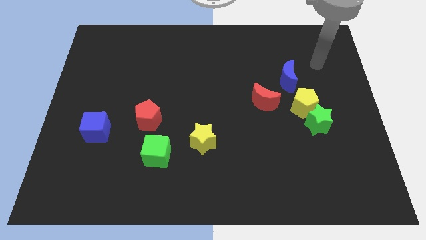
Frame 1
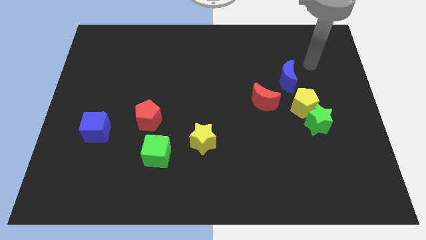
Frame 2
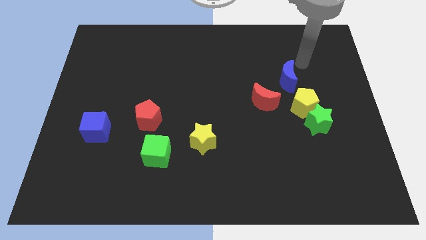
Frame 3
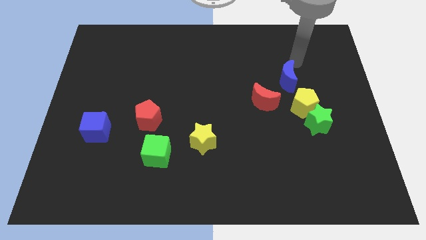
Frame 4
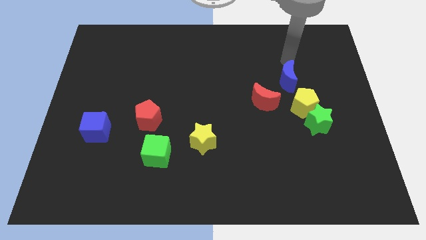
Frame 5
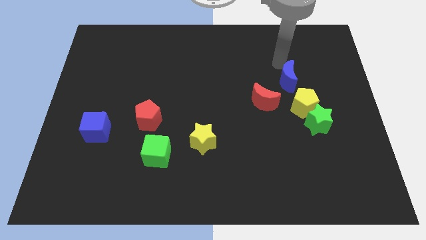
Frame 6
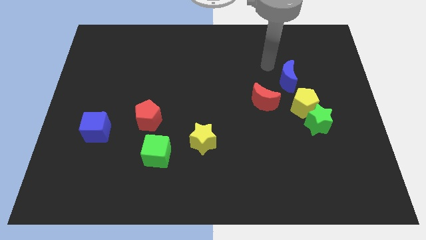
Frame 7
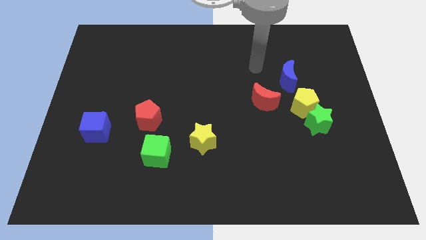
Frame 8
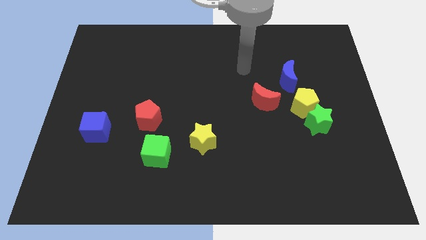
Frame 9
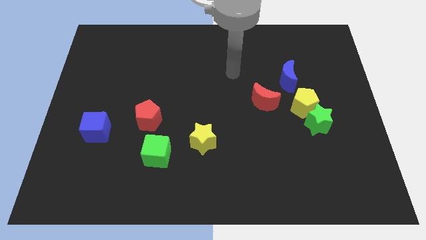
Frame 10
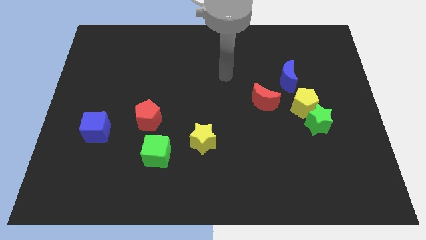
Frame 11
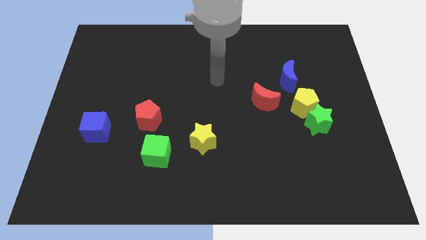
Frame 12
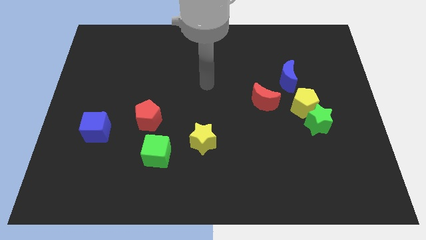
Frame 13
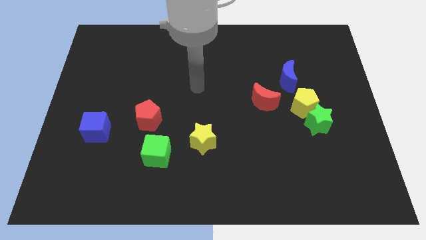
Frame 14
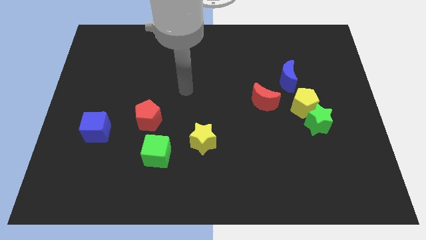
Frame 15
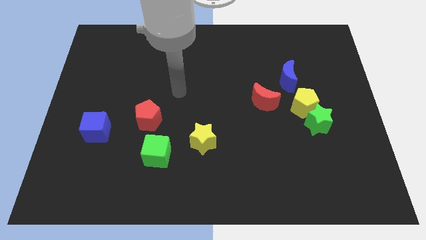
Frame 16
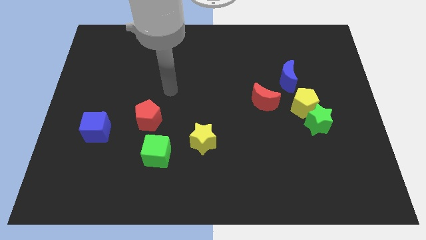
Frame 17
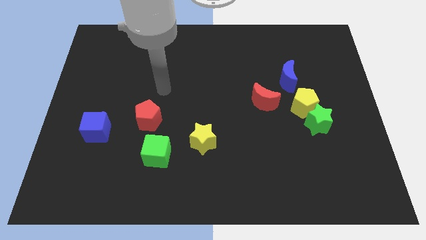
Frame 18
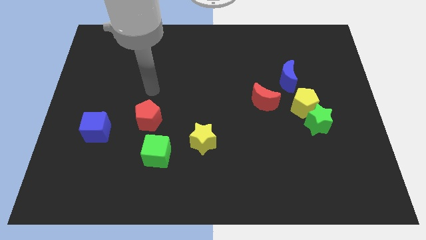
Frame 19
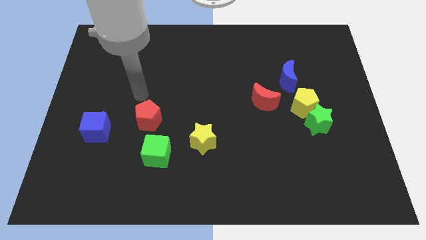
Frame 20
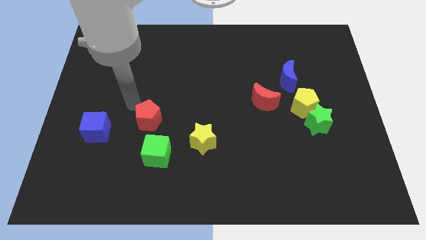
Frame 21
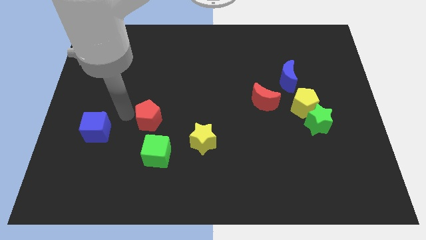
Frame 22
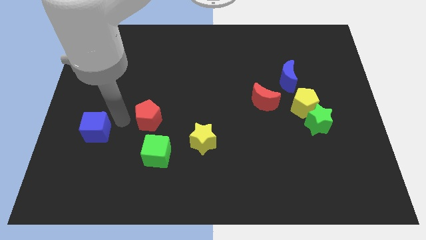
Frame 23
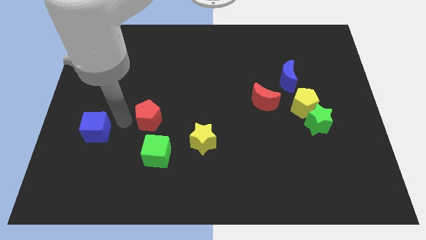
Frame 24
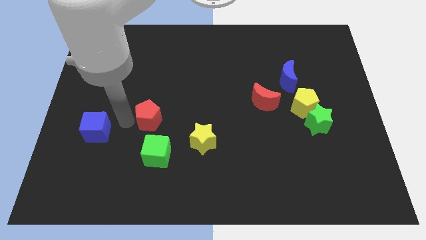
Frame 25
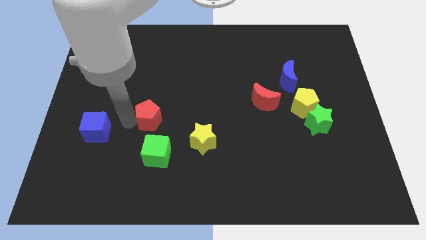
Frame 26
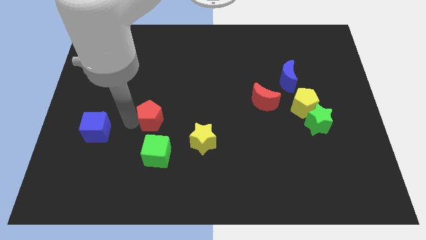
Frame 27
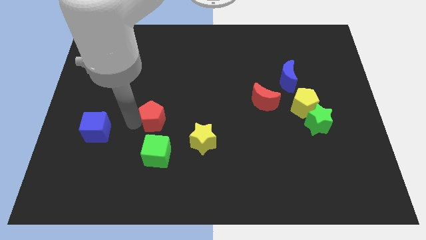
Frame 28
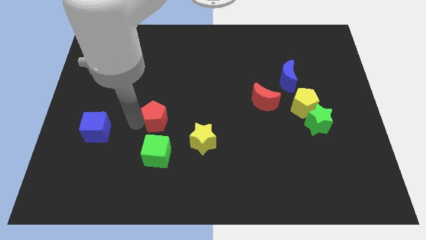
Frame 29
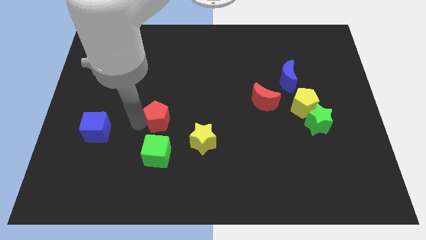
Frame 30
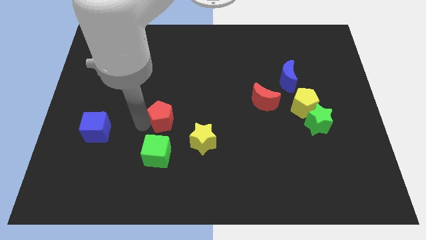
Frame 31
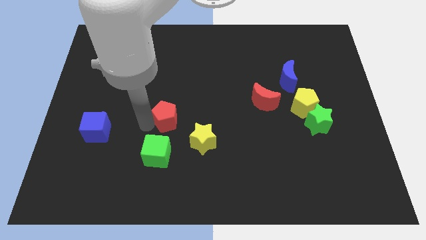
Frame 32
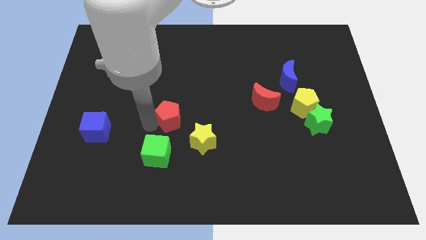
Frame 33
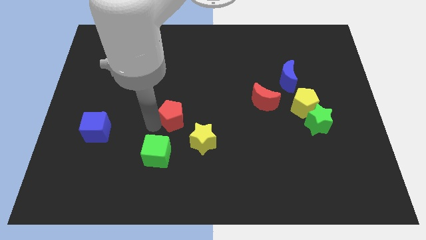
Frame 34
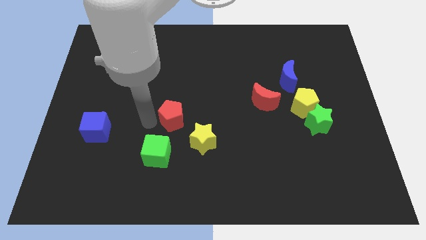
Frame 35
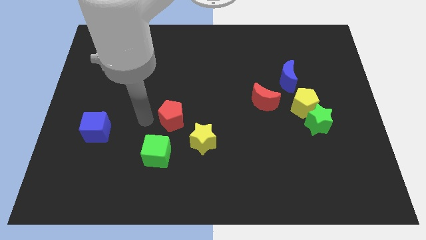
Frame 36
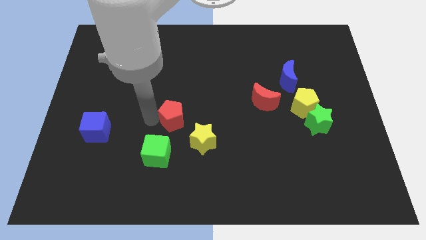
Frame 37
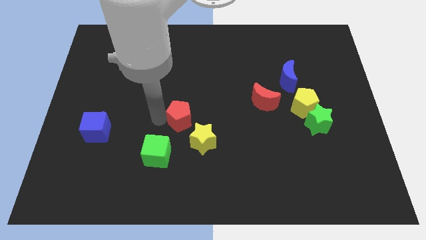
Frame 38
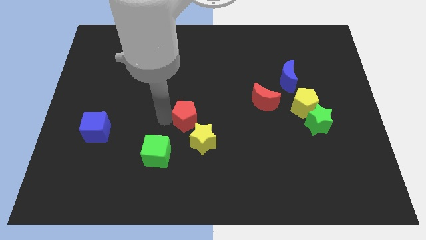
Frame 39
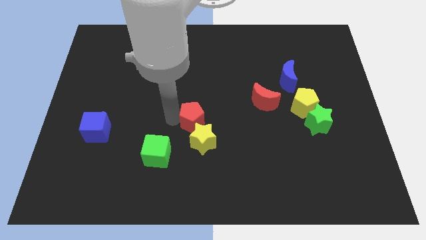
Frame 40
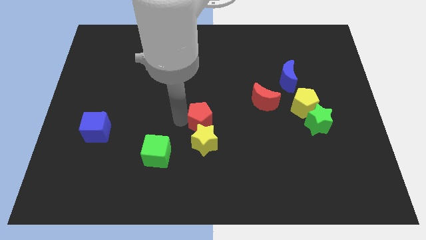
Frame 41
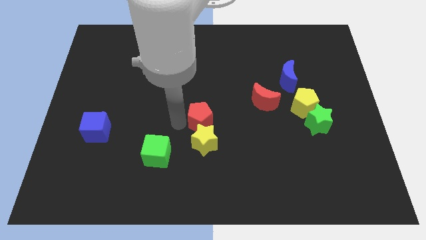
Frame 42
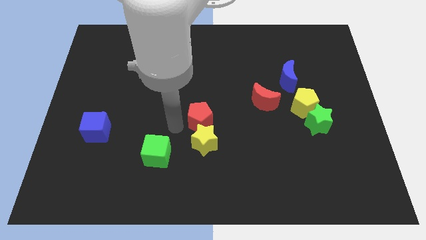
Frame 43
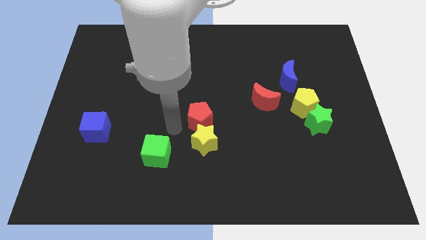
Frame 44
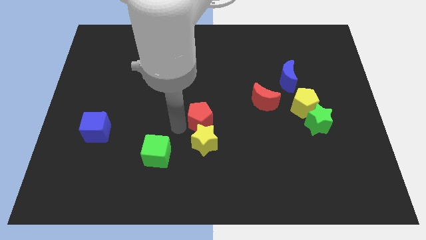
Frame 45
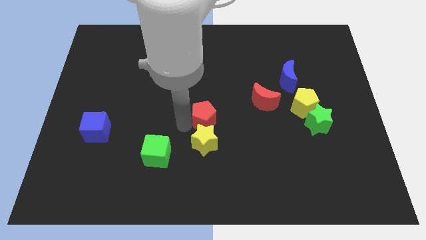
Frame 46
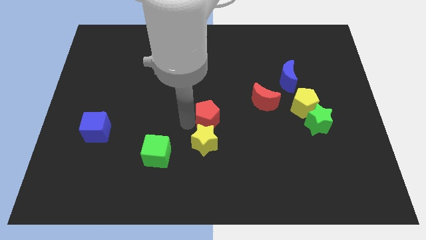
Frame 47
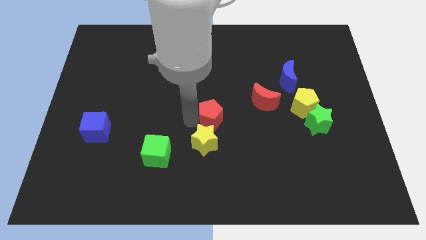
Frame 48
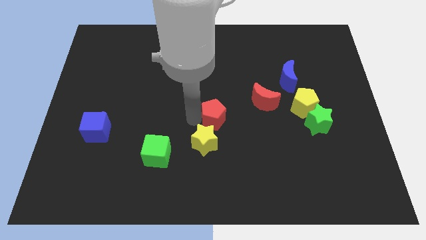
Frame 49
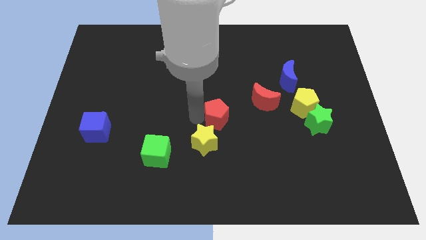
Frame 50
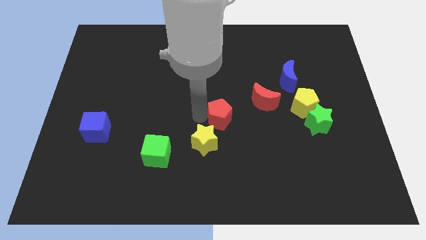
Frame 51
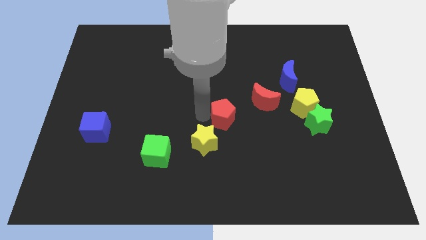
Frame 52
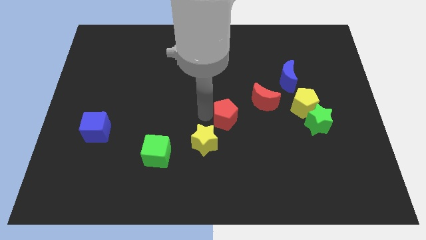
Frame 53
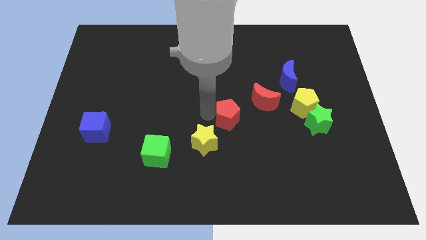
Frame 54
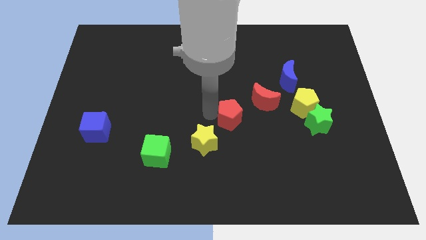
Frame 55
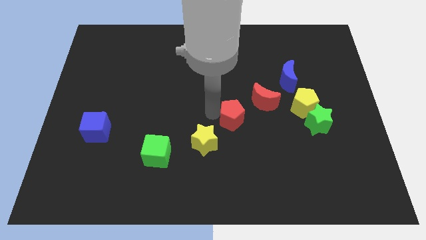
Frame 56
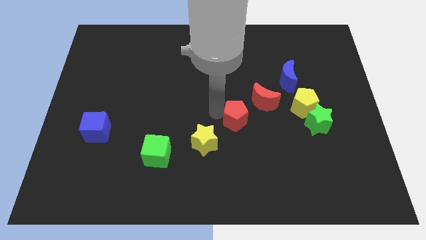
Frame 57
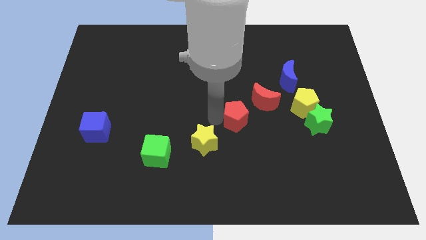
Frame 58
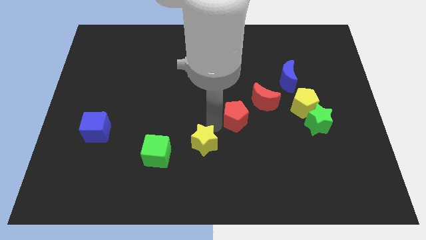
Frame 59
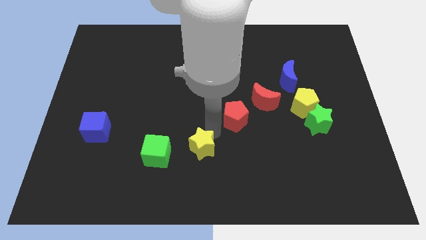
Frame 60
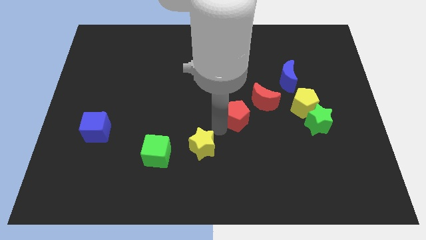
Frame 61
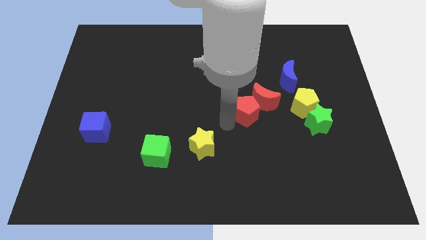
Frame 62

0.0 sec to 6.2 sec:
move the red pentagon to the red moon
